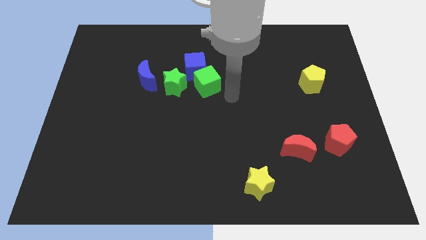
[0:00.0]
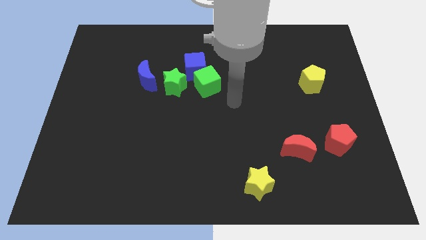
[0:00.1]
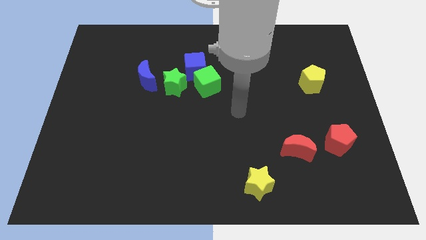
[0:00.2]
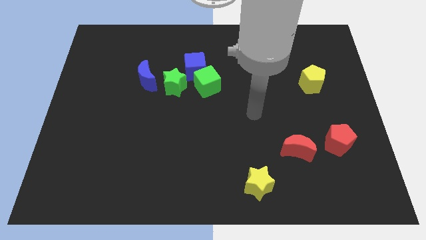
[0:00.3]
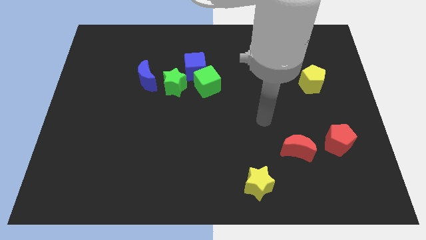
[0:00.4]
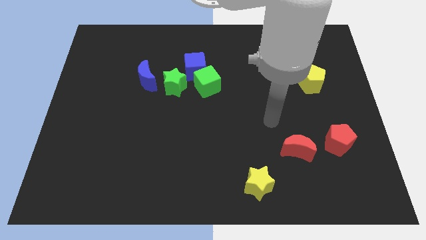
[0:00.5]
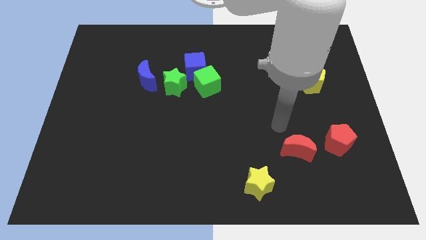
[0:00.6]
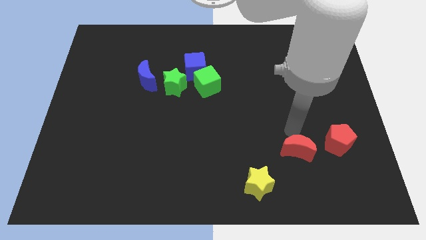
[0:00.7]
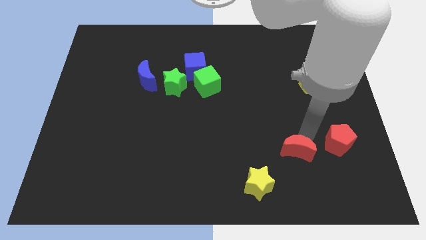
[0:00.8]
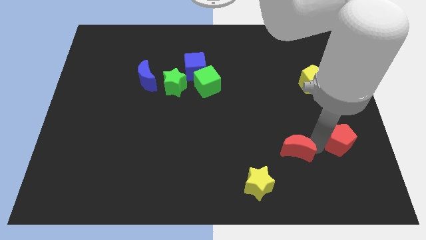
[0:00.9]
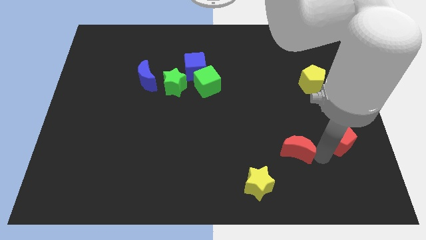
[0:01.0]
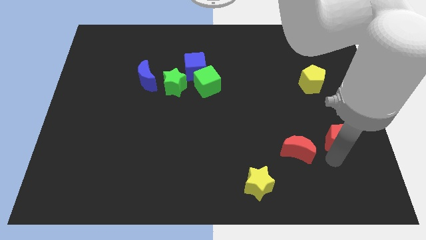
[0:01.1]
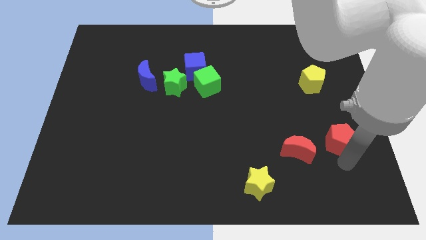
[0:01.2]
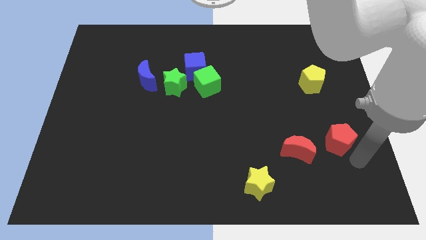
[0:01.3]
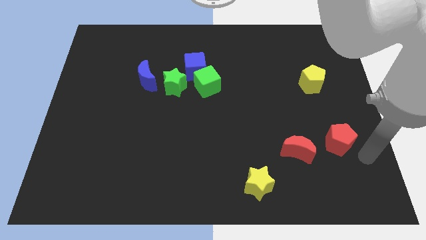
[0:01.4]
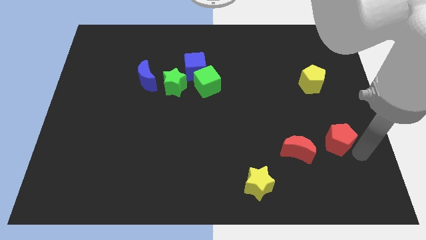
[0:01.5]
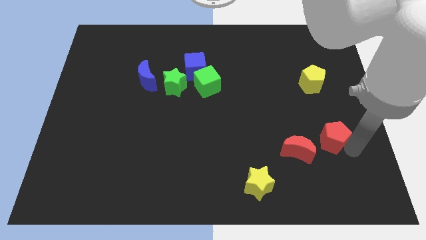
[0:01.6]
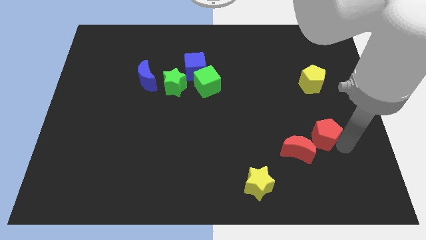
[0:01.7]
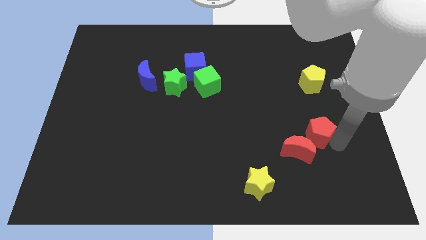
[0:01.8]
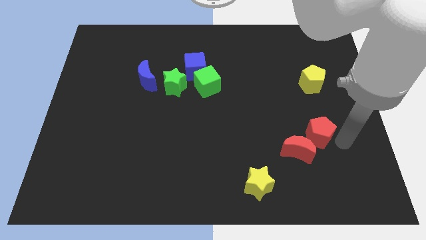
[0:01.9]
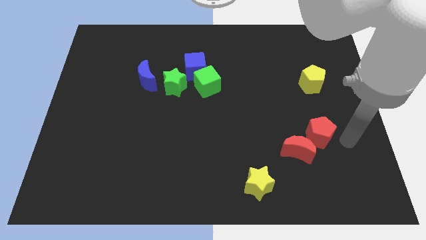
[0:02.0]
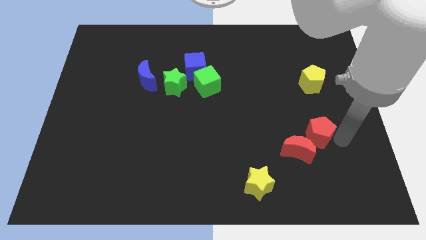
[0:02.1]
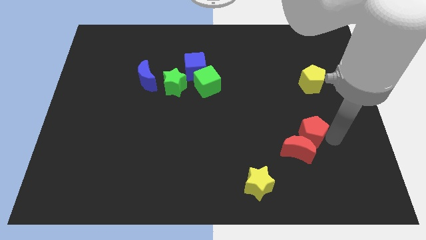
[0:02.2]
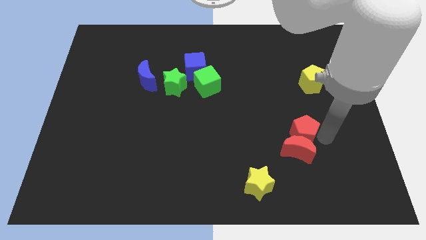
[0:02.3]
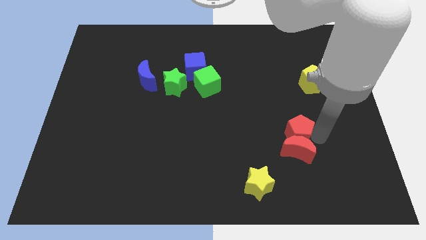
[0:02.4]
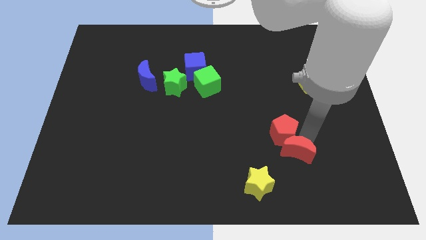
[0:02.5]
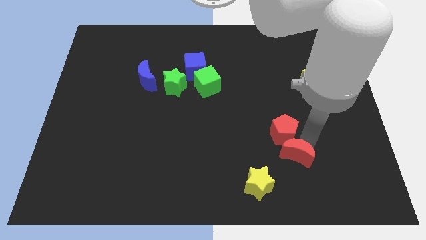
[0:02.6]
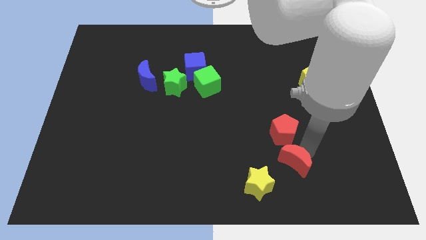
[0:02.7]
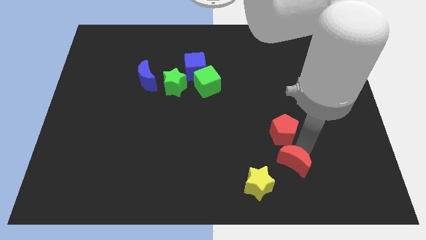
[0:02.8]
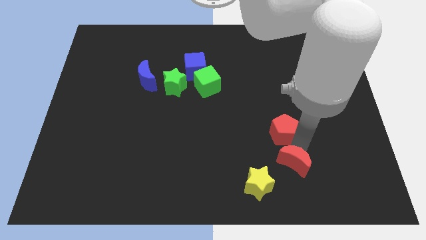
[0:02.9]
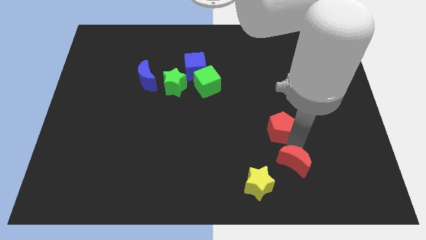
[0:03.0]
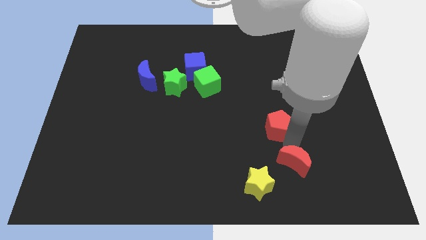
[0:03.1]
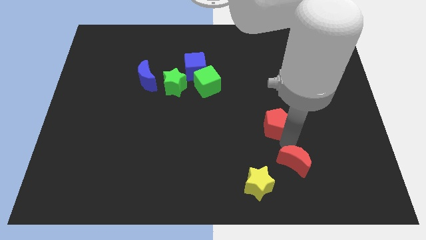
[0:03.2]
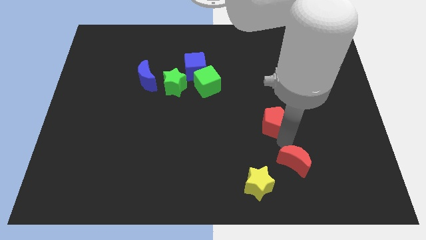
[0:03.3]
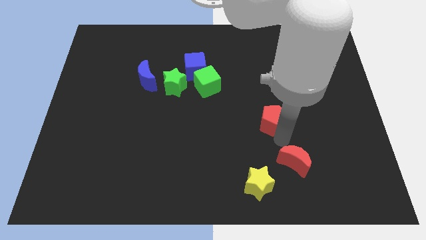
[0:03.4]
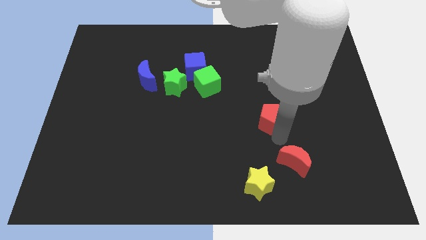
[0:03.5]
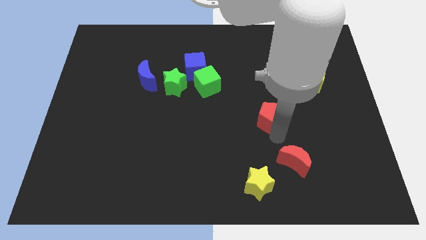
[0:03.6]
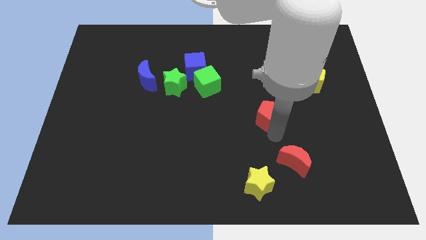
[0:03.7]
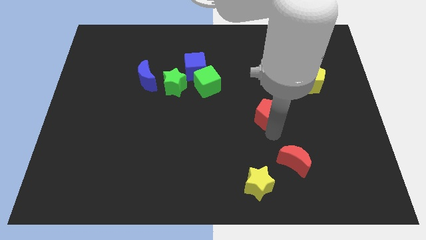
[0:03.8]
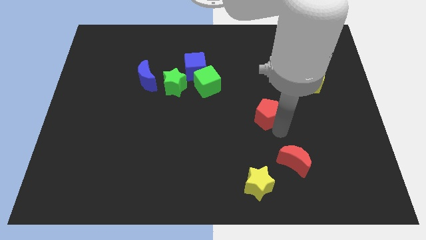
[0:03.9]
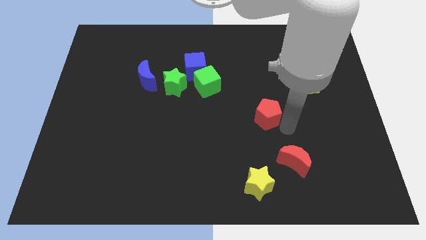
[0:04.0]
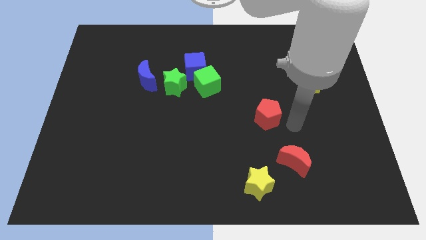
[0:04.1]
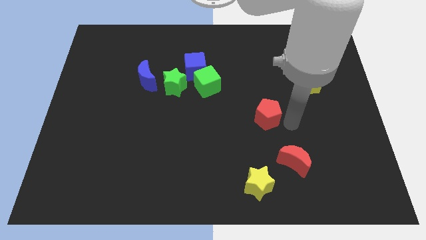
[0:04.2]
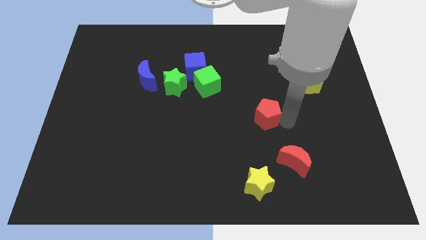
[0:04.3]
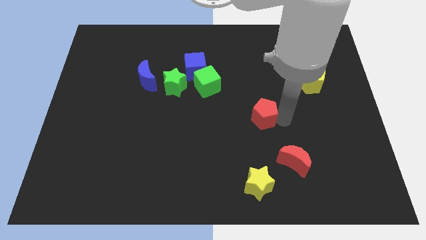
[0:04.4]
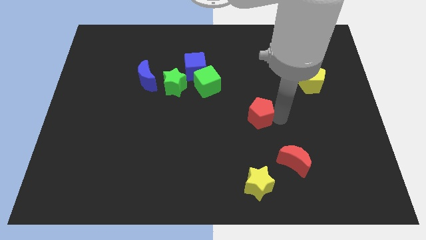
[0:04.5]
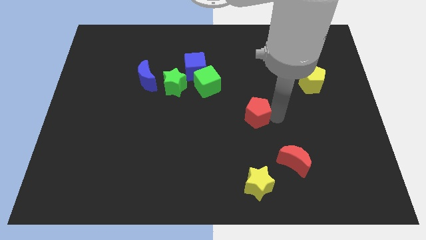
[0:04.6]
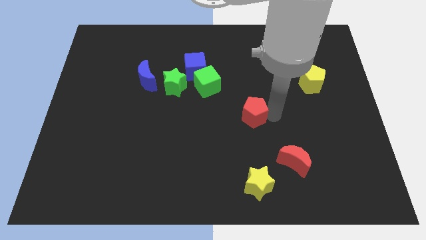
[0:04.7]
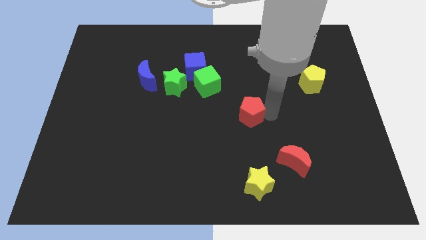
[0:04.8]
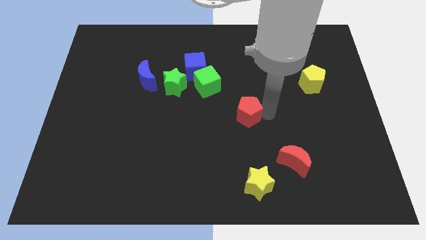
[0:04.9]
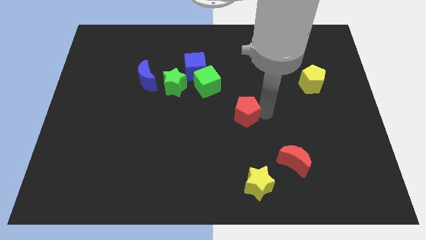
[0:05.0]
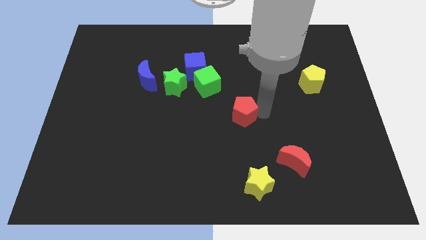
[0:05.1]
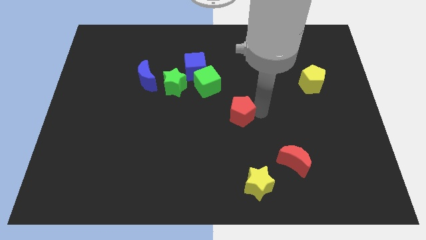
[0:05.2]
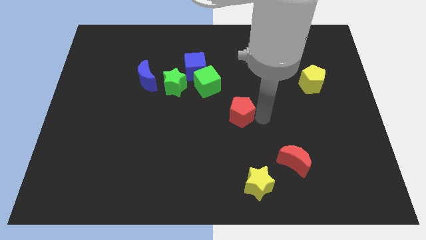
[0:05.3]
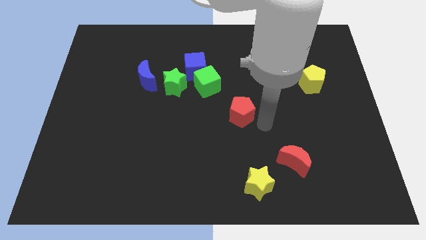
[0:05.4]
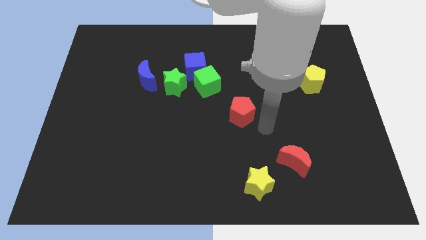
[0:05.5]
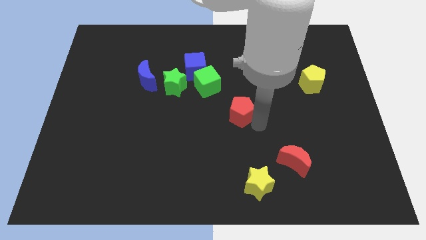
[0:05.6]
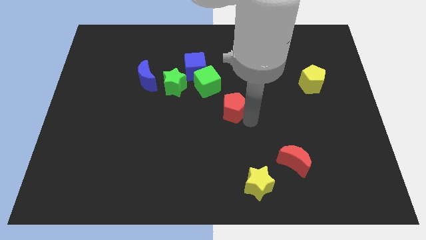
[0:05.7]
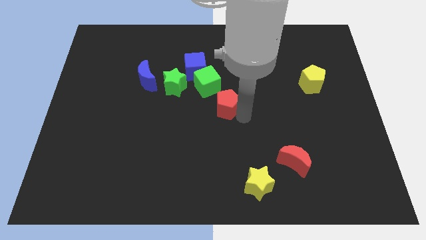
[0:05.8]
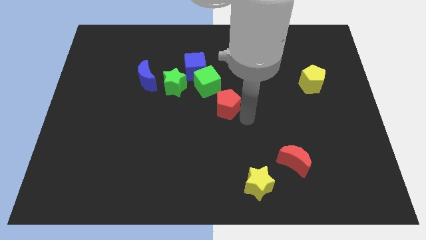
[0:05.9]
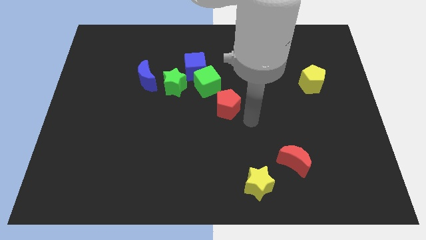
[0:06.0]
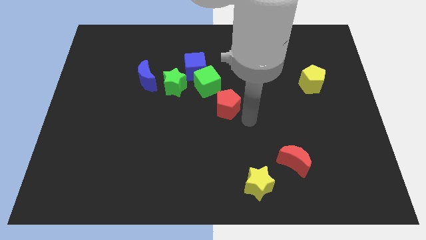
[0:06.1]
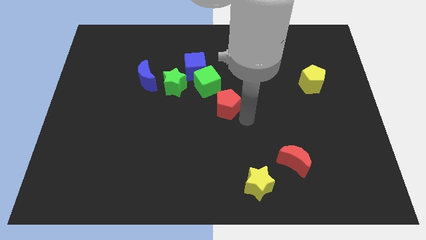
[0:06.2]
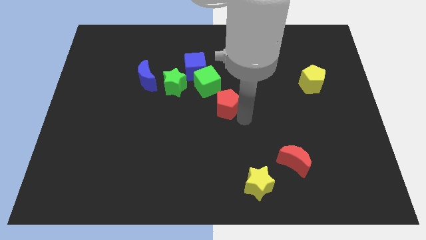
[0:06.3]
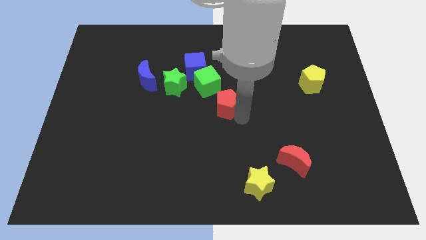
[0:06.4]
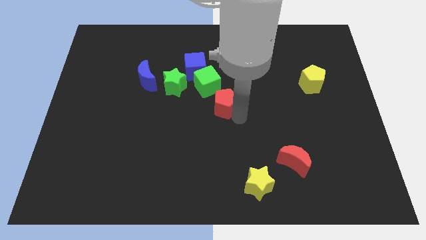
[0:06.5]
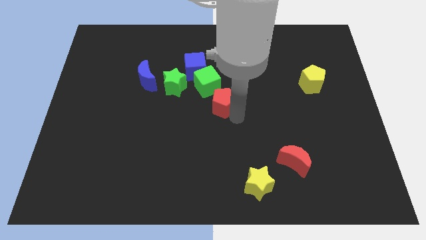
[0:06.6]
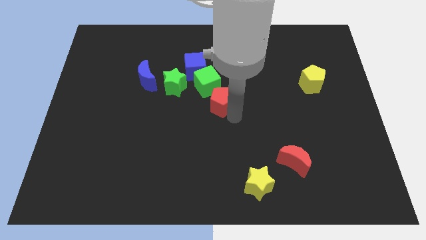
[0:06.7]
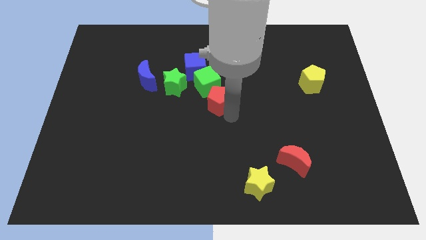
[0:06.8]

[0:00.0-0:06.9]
put the red pentagon diagonally down and to the right of the green star
